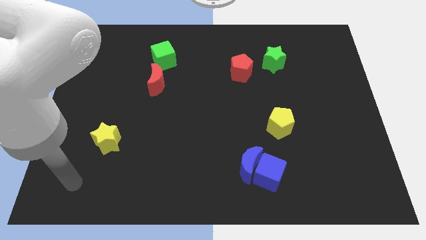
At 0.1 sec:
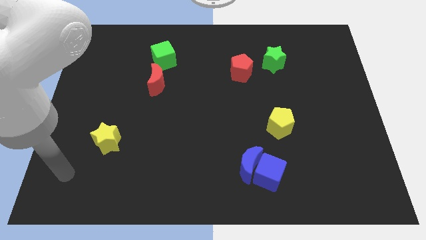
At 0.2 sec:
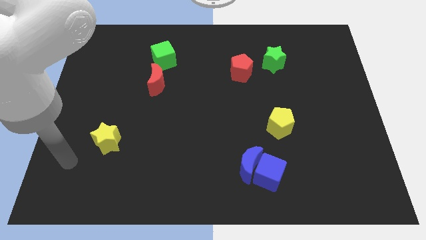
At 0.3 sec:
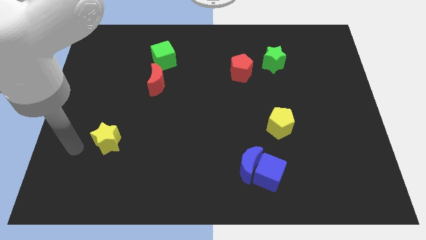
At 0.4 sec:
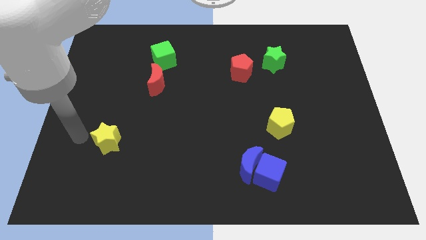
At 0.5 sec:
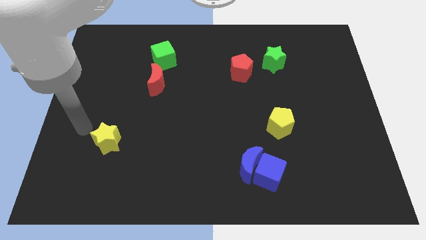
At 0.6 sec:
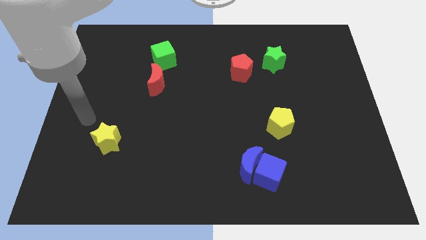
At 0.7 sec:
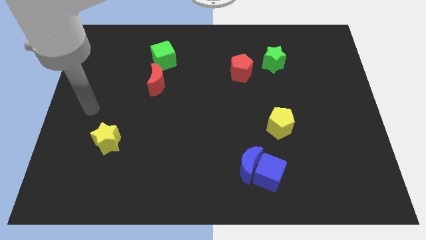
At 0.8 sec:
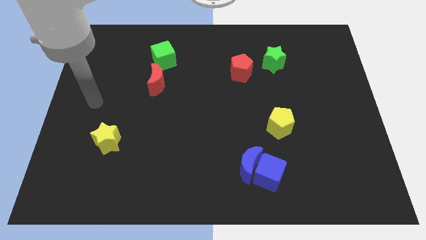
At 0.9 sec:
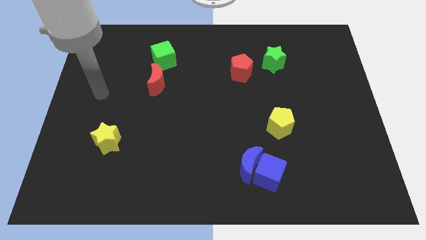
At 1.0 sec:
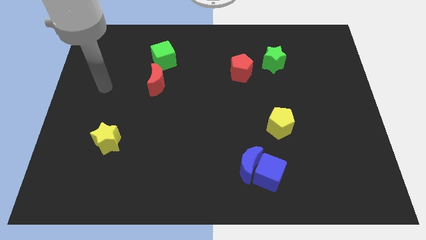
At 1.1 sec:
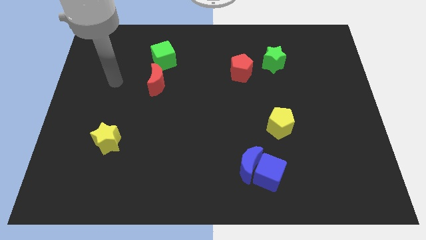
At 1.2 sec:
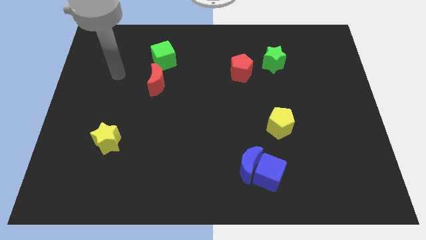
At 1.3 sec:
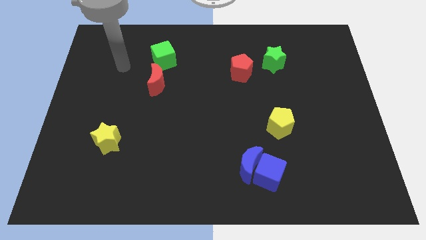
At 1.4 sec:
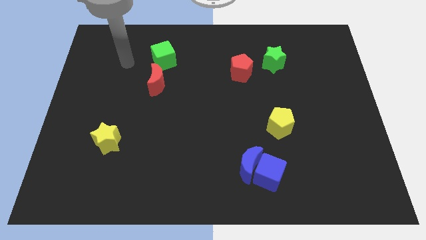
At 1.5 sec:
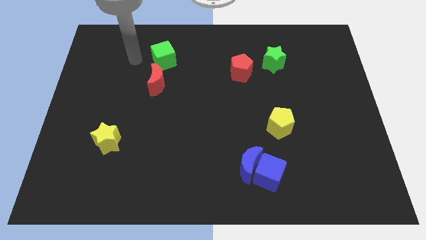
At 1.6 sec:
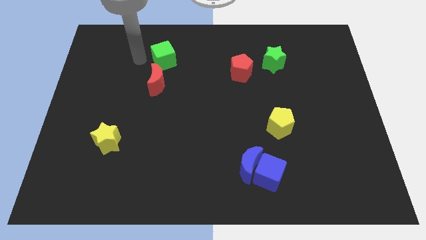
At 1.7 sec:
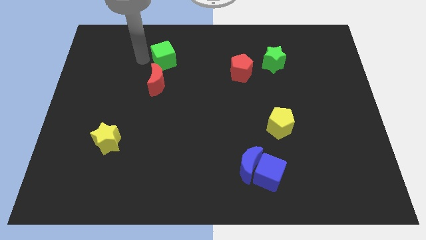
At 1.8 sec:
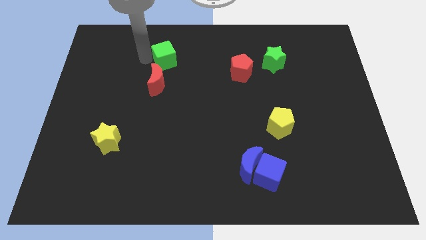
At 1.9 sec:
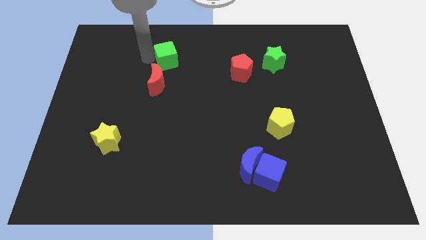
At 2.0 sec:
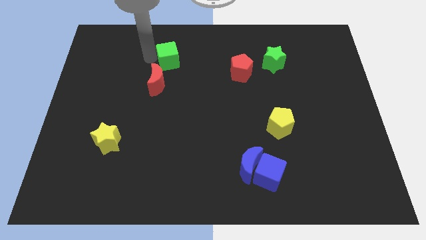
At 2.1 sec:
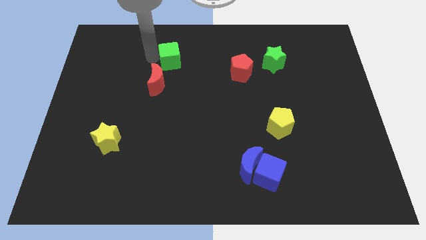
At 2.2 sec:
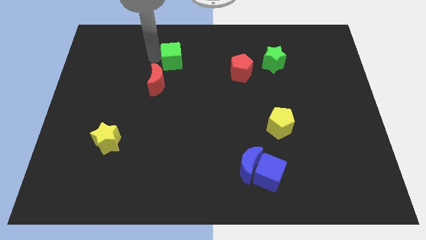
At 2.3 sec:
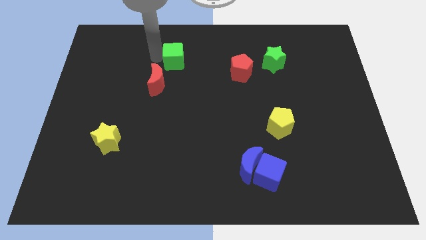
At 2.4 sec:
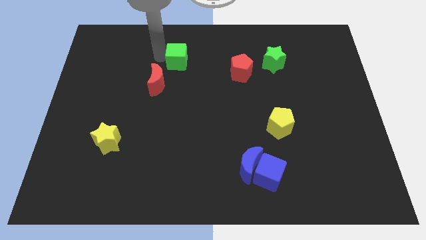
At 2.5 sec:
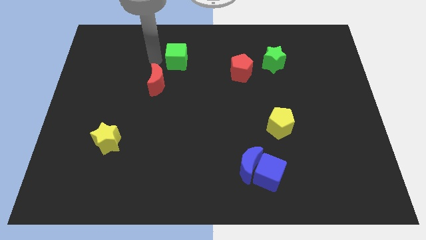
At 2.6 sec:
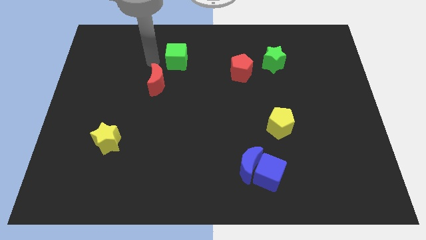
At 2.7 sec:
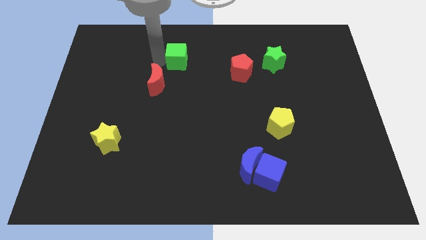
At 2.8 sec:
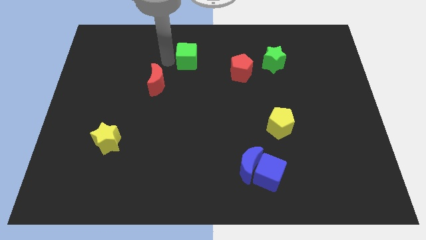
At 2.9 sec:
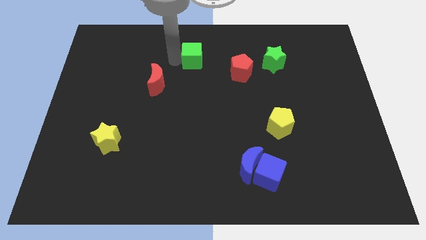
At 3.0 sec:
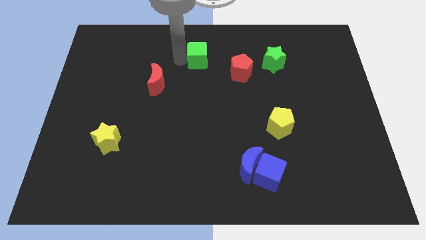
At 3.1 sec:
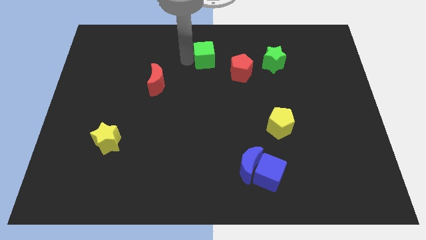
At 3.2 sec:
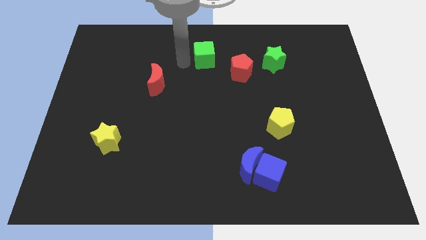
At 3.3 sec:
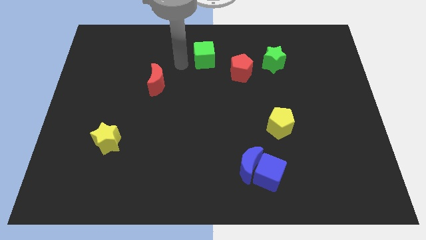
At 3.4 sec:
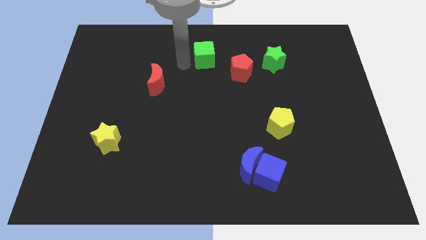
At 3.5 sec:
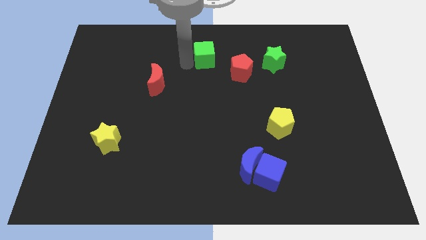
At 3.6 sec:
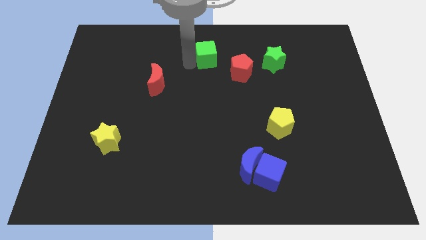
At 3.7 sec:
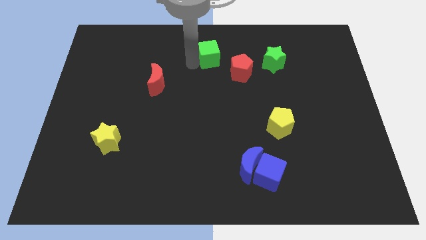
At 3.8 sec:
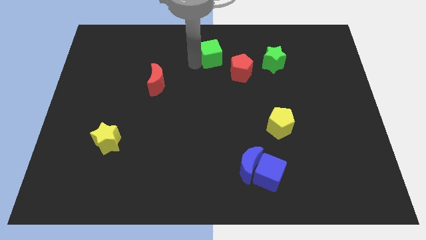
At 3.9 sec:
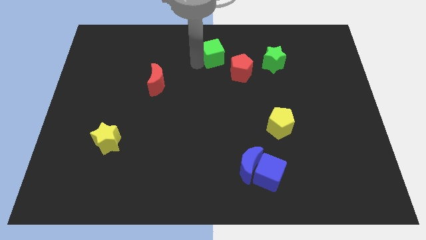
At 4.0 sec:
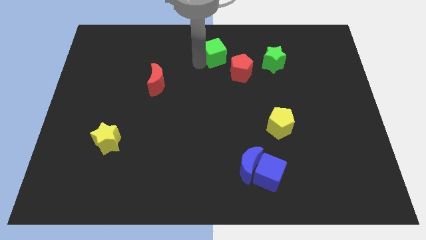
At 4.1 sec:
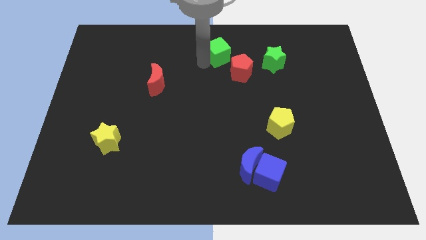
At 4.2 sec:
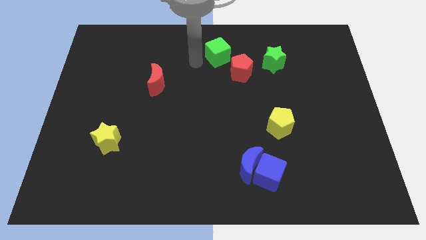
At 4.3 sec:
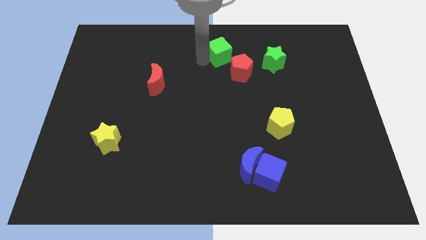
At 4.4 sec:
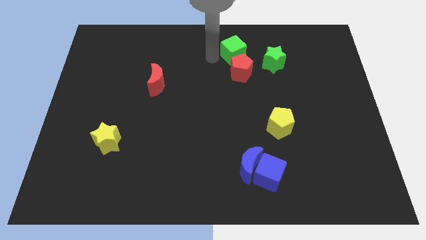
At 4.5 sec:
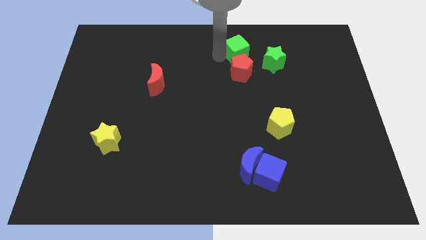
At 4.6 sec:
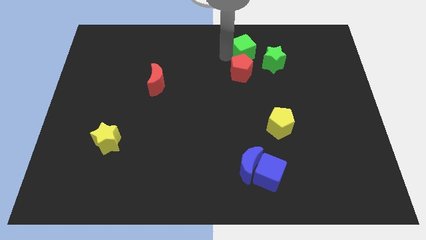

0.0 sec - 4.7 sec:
slide the green cube right

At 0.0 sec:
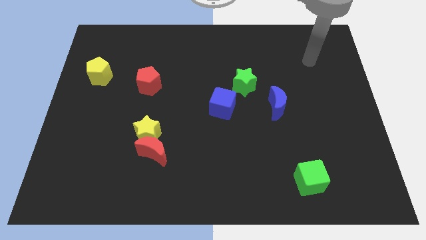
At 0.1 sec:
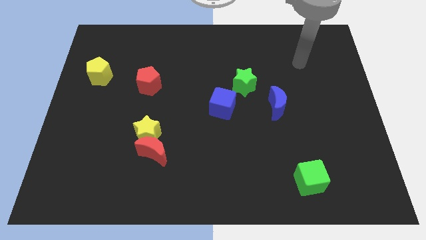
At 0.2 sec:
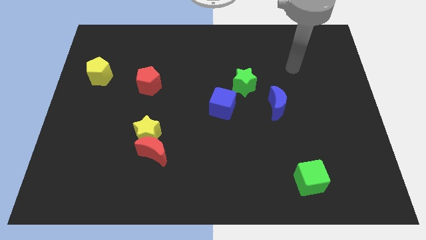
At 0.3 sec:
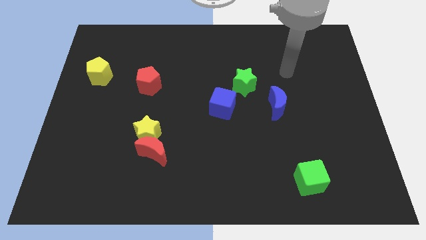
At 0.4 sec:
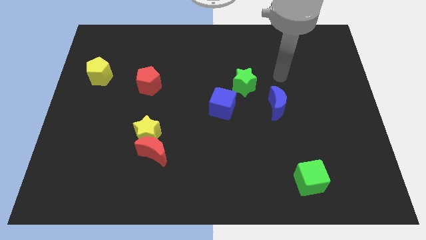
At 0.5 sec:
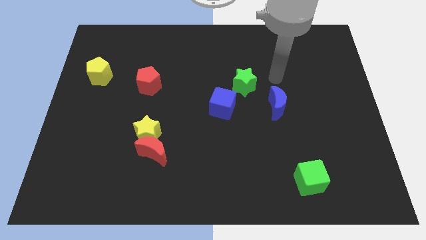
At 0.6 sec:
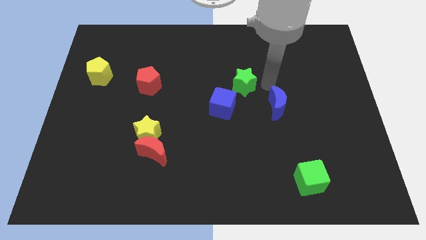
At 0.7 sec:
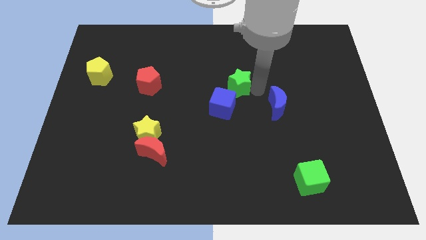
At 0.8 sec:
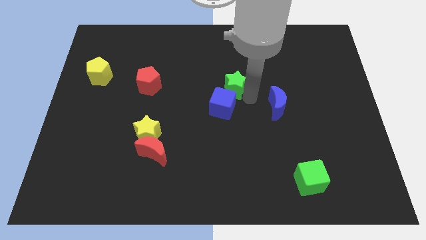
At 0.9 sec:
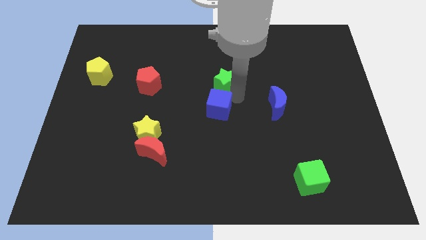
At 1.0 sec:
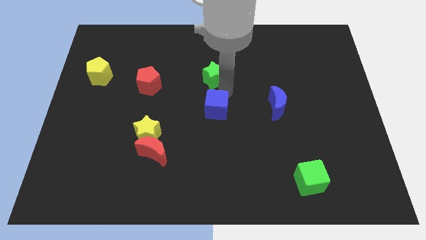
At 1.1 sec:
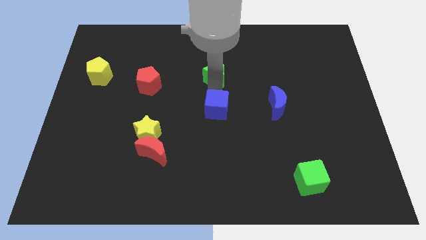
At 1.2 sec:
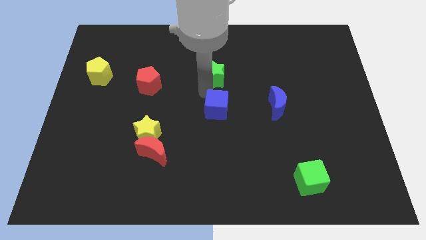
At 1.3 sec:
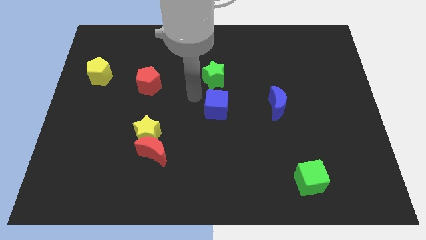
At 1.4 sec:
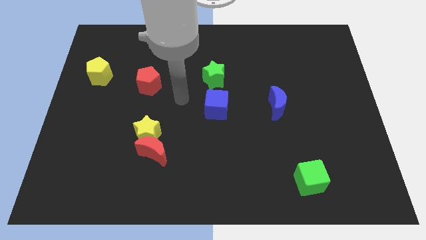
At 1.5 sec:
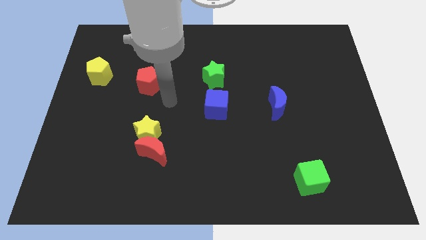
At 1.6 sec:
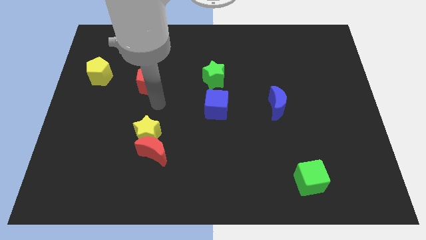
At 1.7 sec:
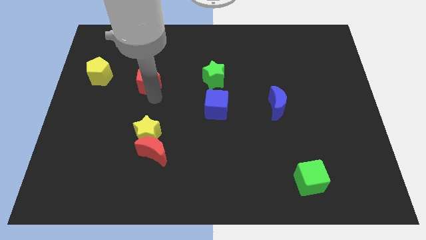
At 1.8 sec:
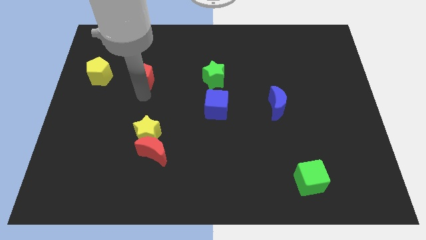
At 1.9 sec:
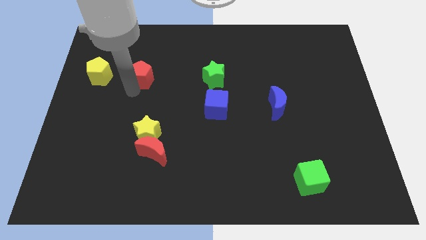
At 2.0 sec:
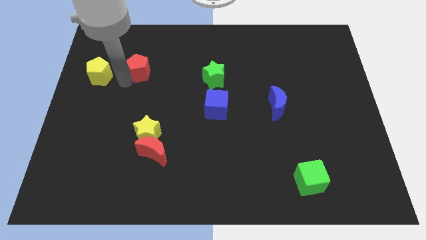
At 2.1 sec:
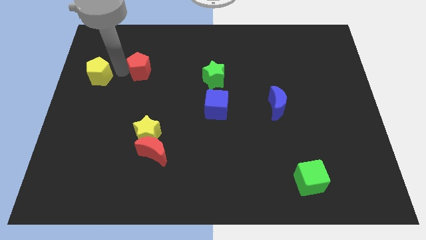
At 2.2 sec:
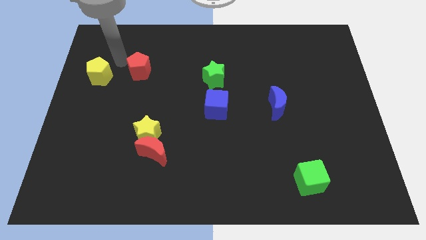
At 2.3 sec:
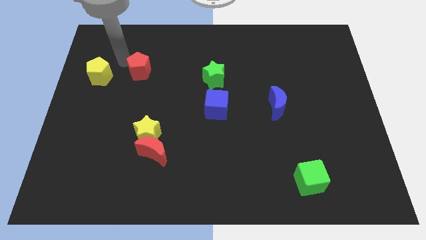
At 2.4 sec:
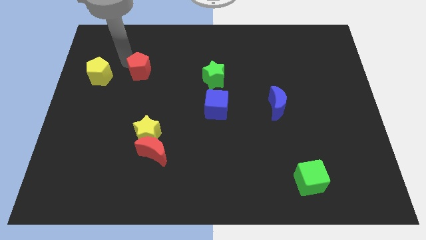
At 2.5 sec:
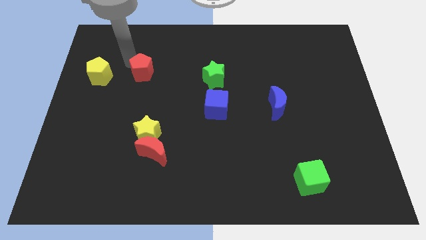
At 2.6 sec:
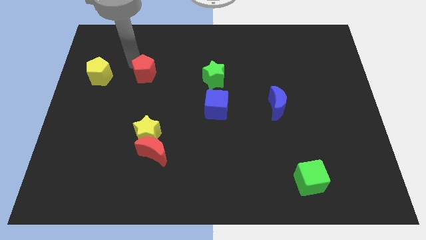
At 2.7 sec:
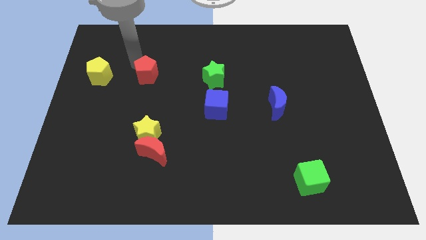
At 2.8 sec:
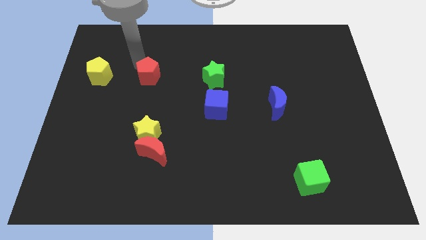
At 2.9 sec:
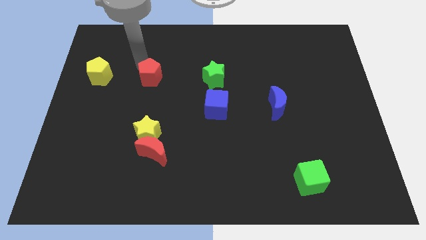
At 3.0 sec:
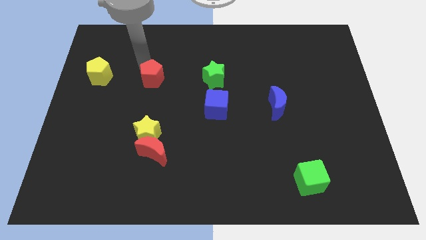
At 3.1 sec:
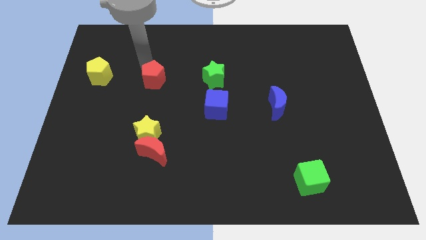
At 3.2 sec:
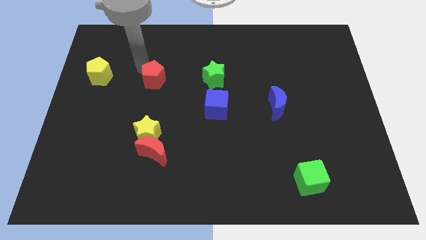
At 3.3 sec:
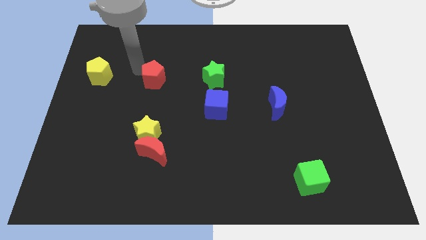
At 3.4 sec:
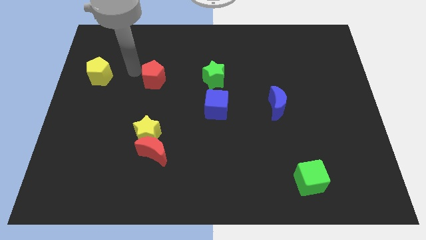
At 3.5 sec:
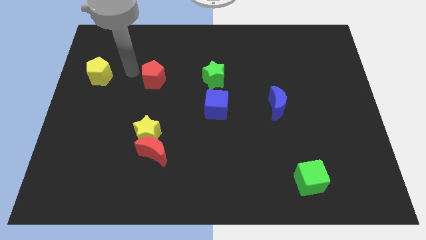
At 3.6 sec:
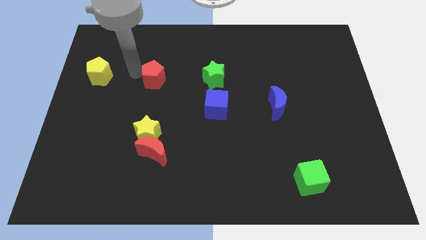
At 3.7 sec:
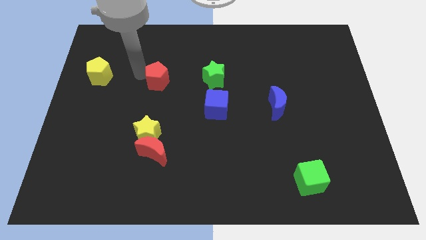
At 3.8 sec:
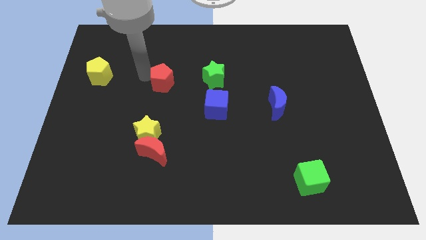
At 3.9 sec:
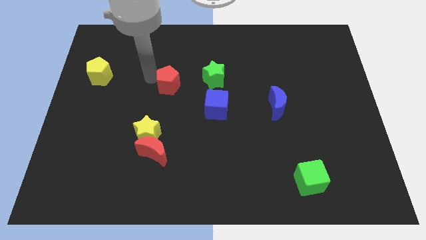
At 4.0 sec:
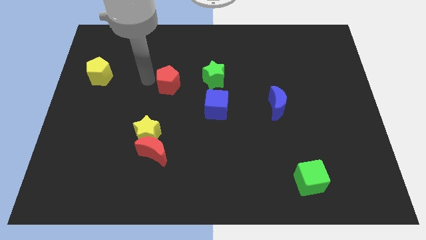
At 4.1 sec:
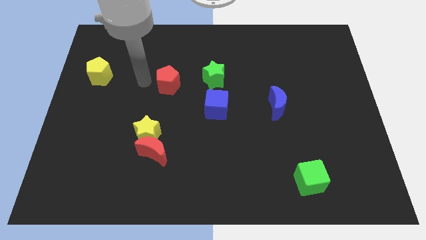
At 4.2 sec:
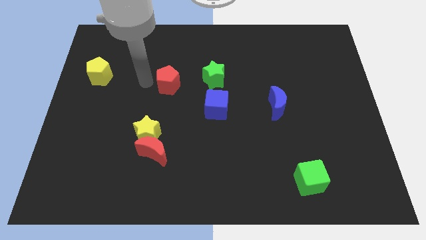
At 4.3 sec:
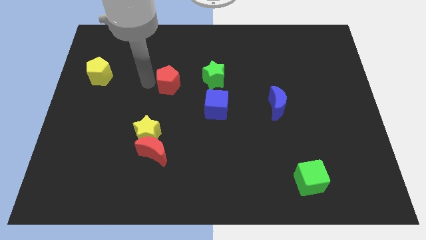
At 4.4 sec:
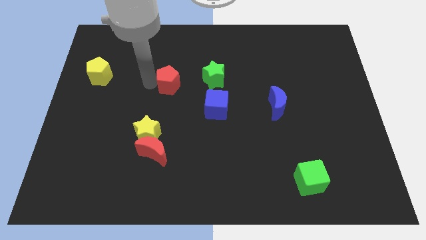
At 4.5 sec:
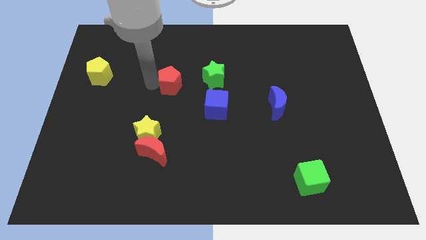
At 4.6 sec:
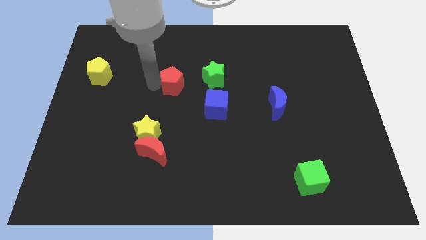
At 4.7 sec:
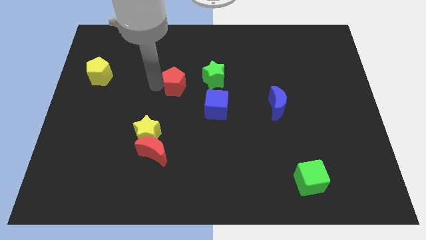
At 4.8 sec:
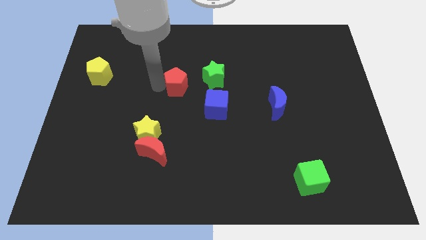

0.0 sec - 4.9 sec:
slide the red pentagon to the right slightly
